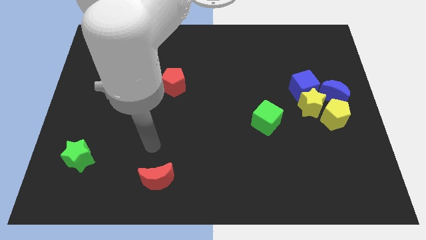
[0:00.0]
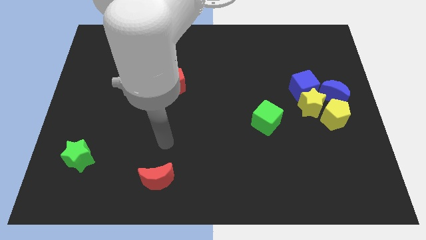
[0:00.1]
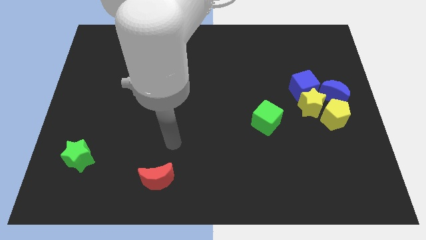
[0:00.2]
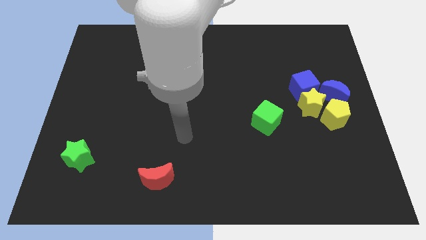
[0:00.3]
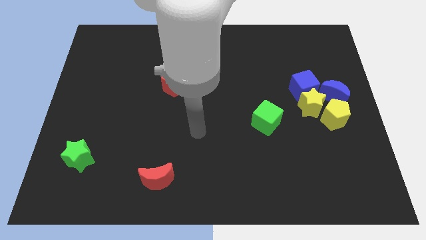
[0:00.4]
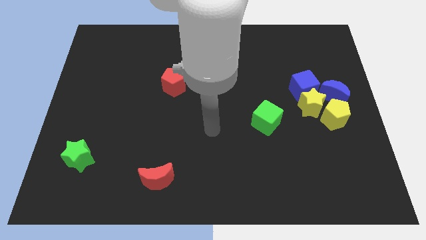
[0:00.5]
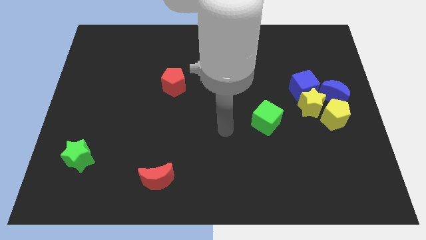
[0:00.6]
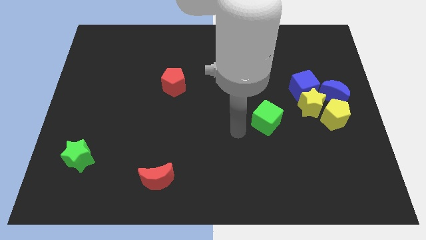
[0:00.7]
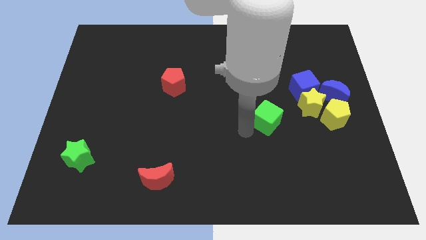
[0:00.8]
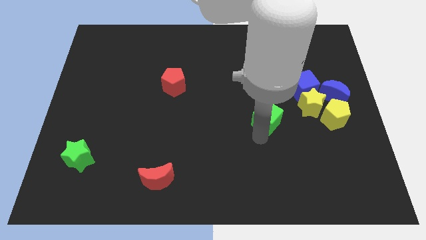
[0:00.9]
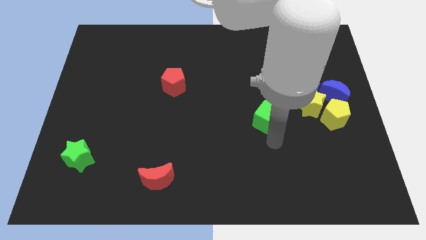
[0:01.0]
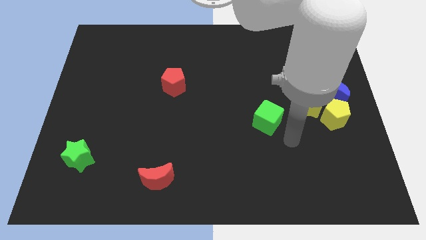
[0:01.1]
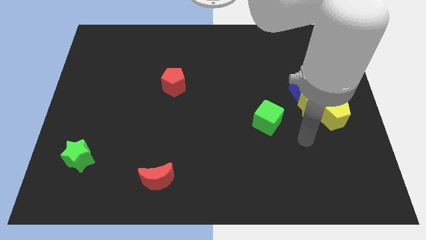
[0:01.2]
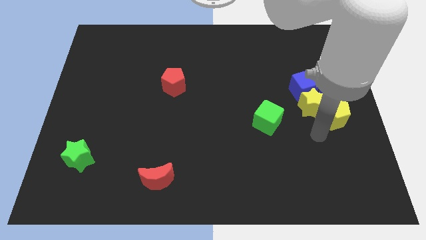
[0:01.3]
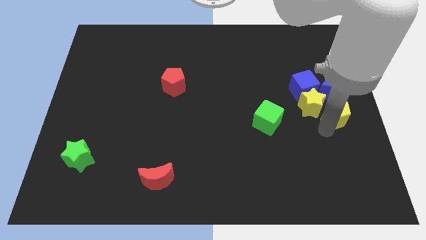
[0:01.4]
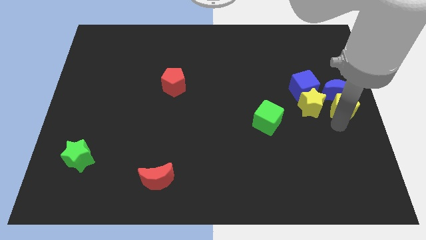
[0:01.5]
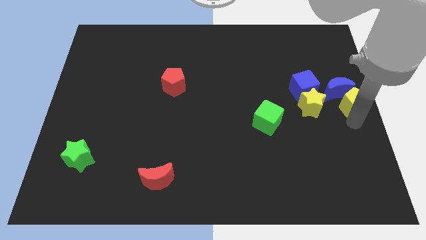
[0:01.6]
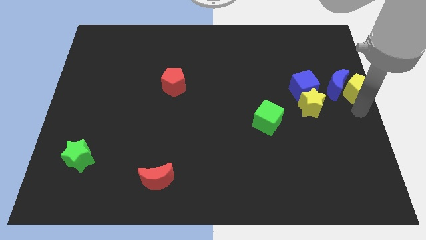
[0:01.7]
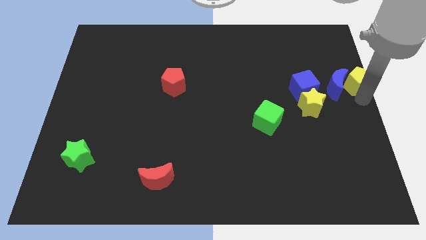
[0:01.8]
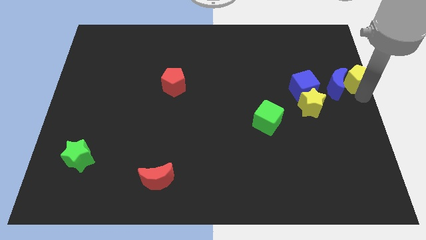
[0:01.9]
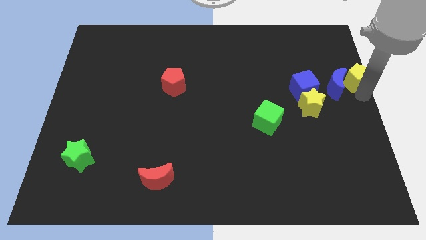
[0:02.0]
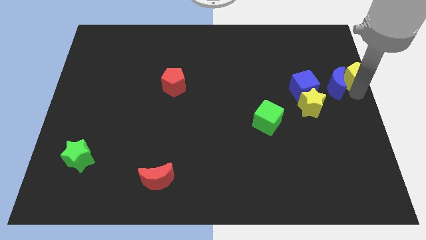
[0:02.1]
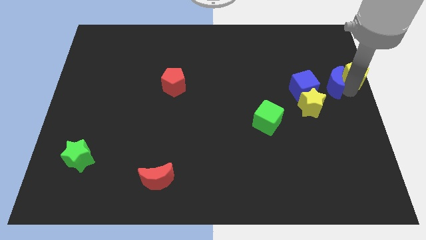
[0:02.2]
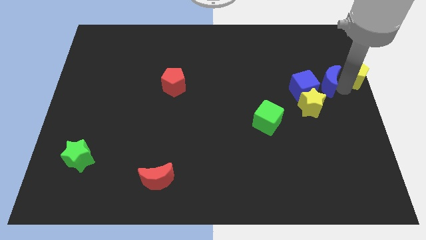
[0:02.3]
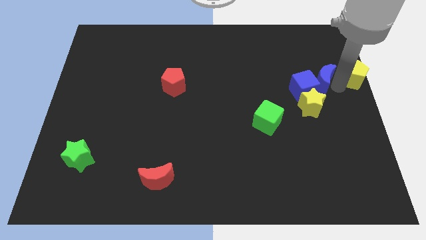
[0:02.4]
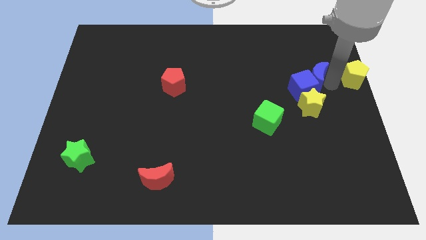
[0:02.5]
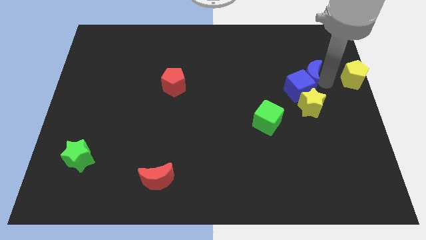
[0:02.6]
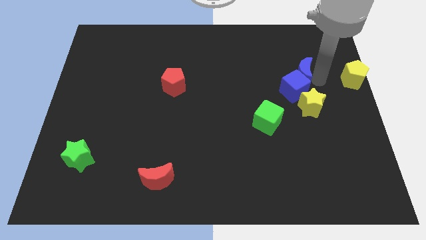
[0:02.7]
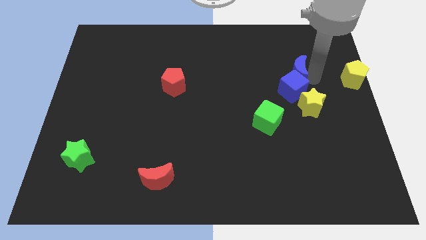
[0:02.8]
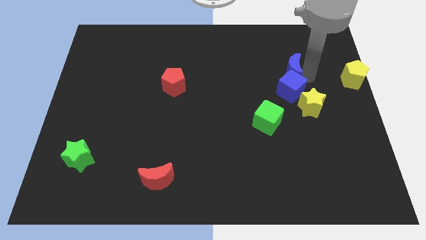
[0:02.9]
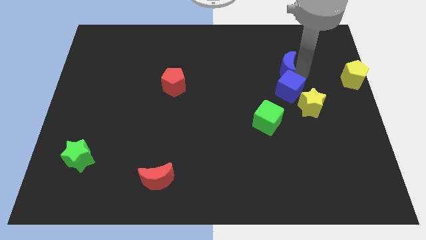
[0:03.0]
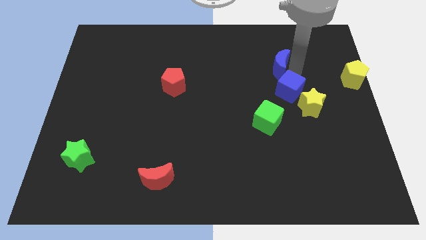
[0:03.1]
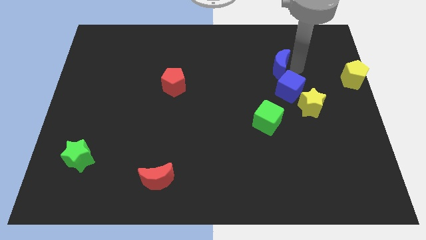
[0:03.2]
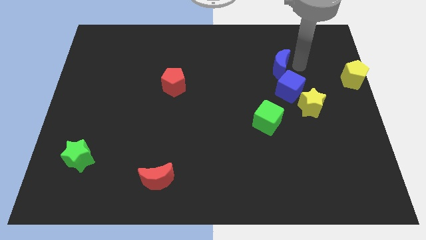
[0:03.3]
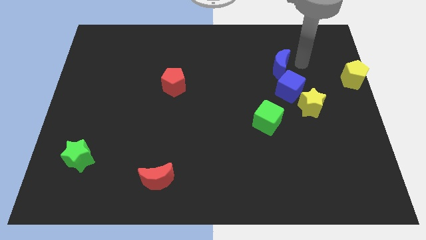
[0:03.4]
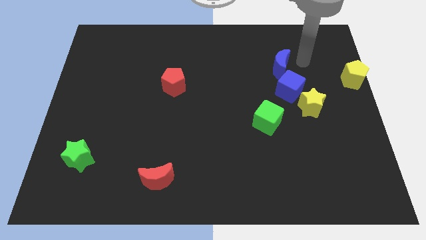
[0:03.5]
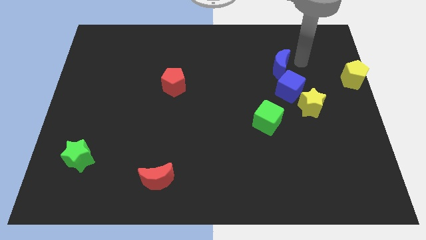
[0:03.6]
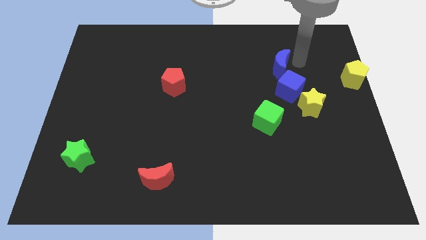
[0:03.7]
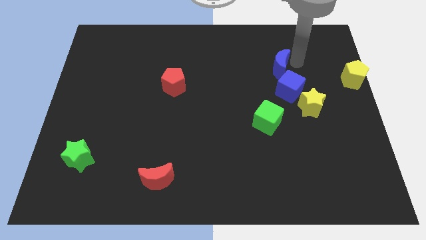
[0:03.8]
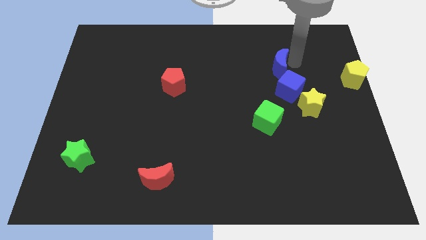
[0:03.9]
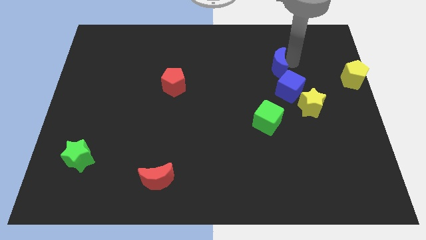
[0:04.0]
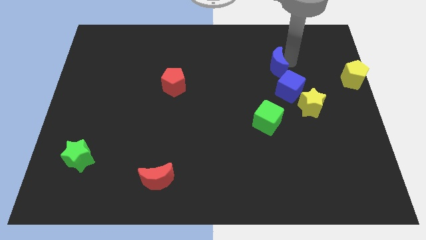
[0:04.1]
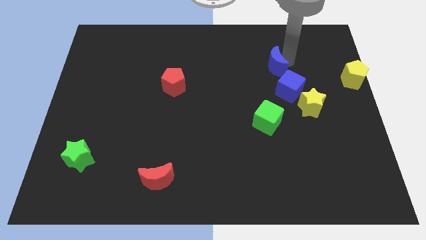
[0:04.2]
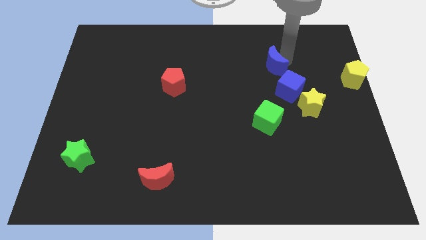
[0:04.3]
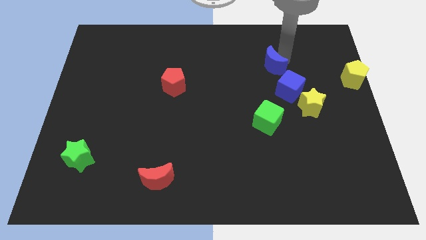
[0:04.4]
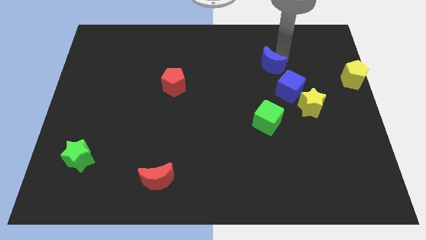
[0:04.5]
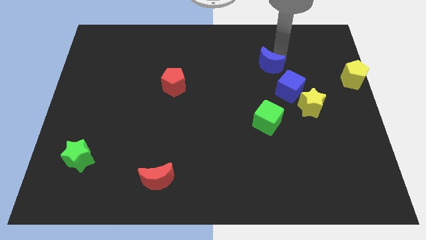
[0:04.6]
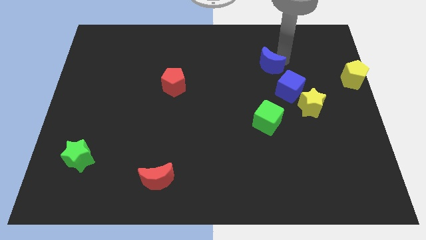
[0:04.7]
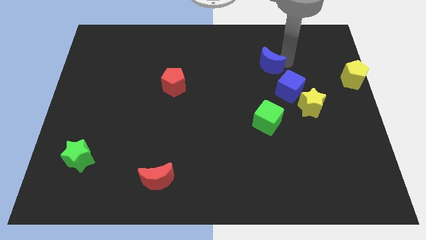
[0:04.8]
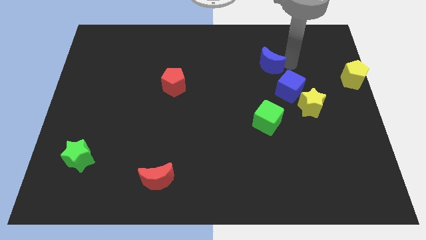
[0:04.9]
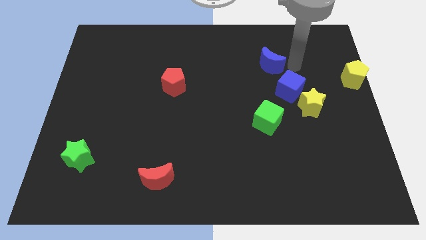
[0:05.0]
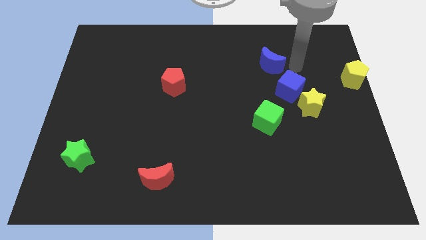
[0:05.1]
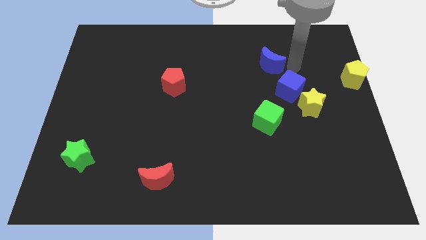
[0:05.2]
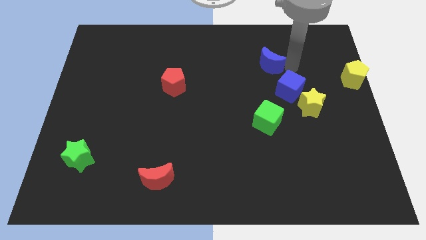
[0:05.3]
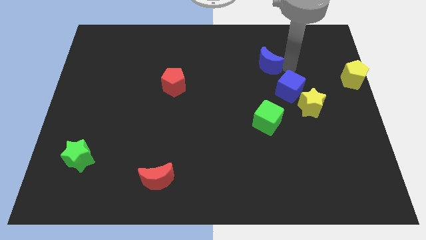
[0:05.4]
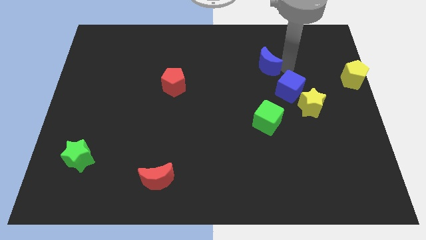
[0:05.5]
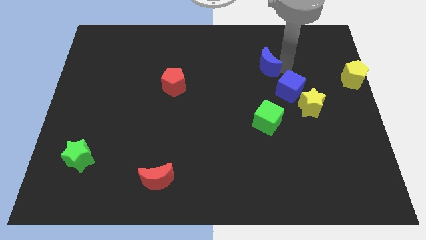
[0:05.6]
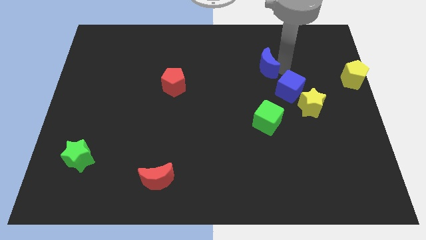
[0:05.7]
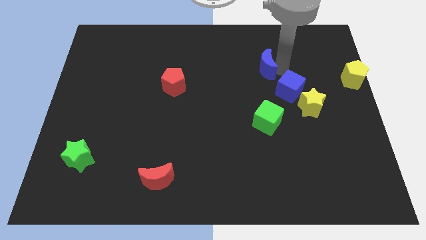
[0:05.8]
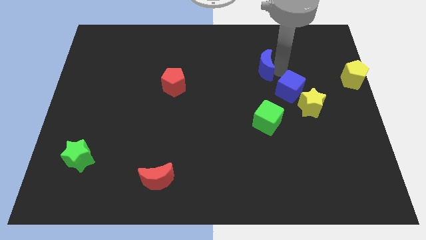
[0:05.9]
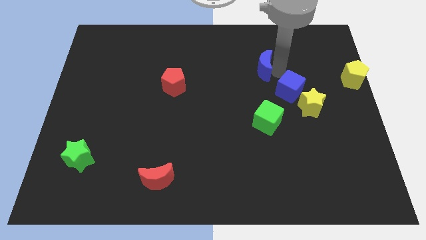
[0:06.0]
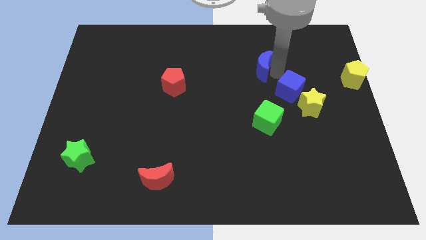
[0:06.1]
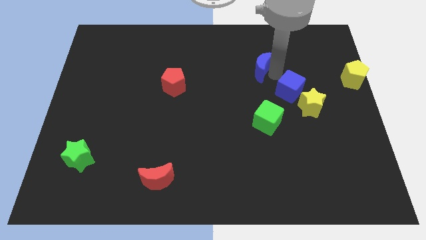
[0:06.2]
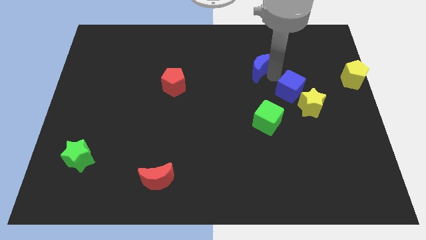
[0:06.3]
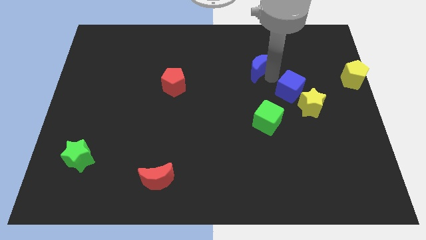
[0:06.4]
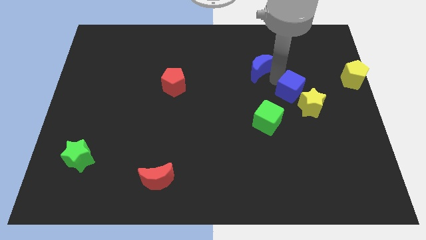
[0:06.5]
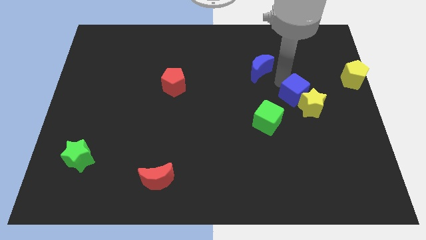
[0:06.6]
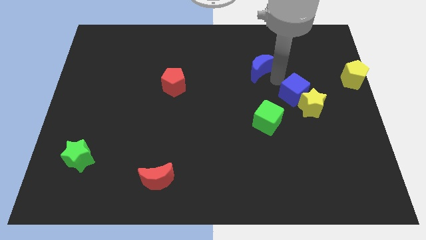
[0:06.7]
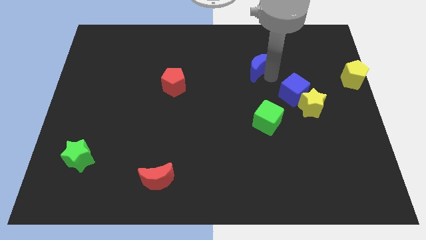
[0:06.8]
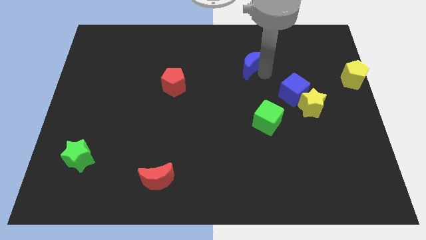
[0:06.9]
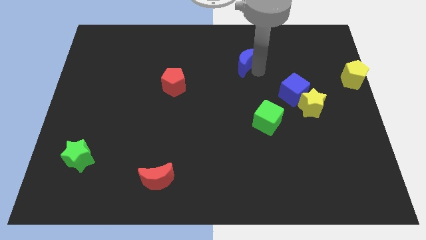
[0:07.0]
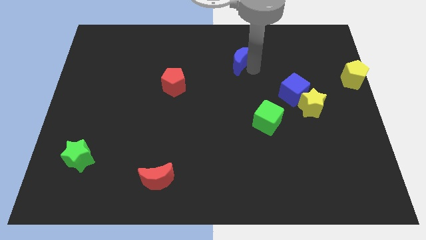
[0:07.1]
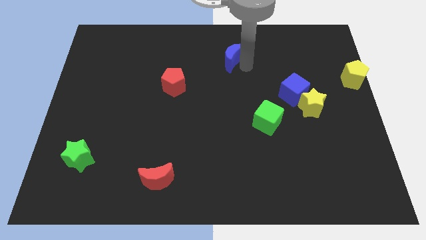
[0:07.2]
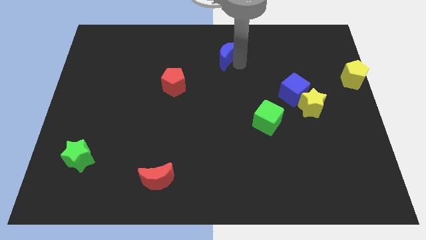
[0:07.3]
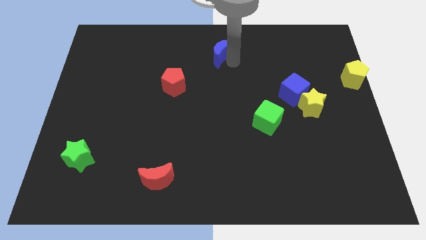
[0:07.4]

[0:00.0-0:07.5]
slide the blue moon to the top
